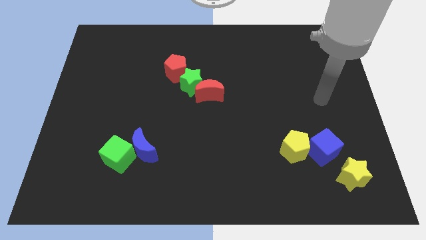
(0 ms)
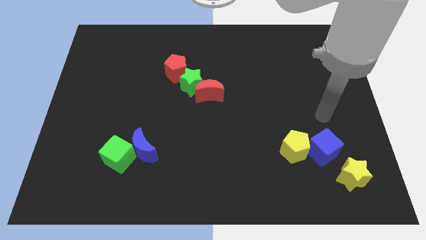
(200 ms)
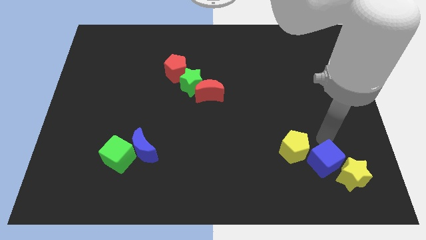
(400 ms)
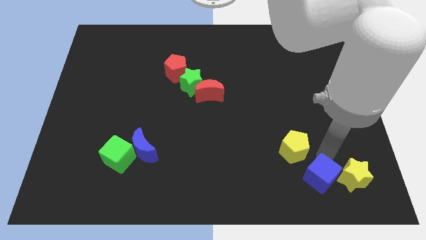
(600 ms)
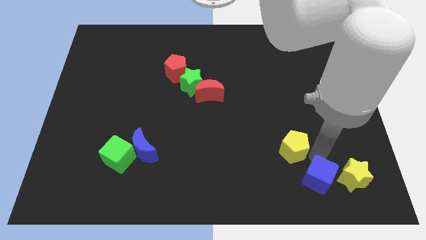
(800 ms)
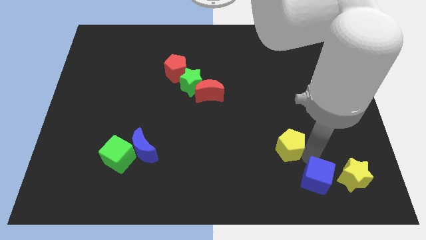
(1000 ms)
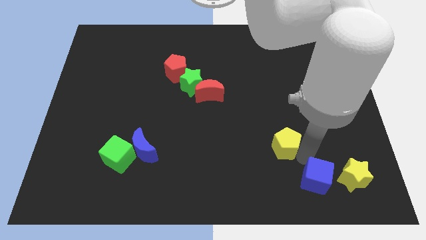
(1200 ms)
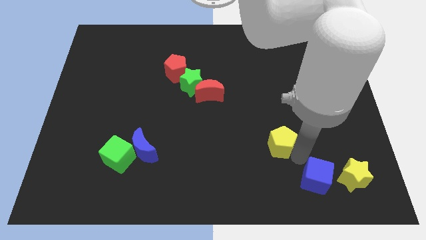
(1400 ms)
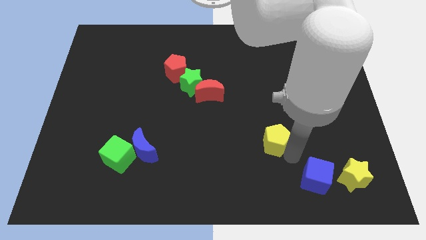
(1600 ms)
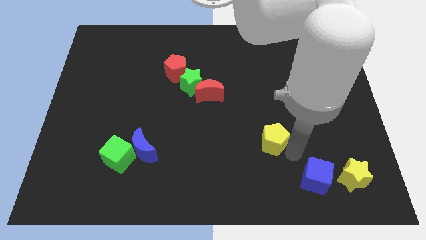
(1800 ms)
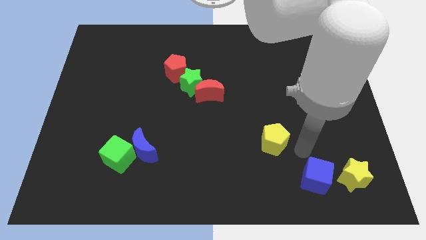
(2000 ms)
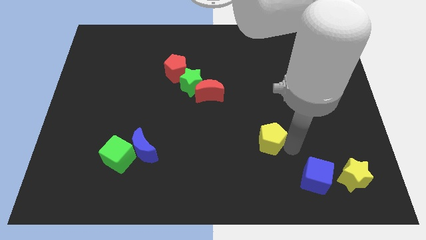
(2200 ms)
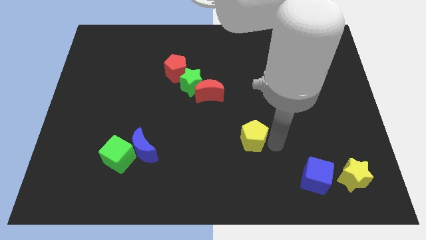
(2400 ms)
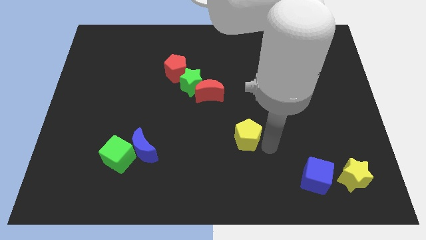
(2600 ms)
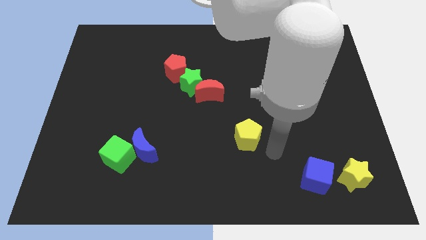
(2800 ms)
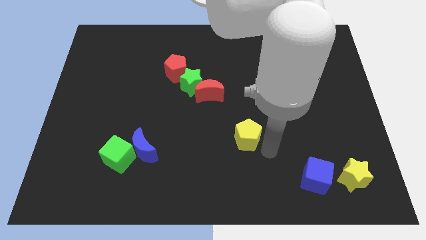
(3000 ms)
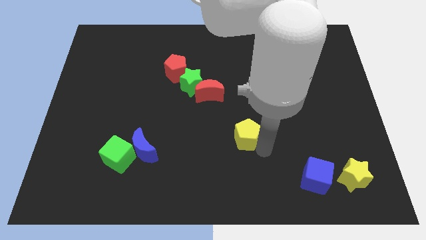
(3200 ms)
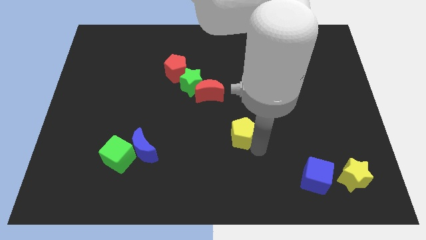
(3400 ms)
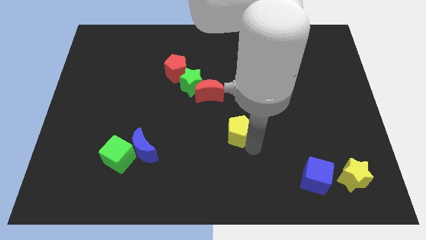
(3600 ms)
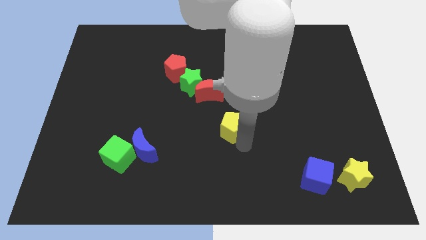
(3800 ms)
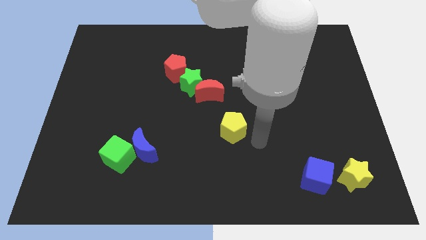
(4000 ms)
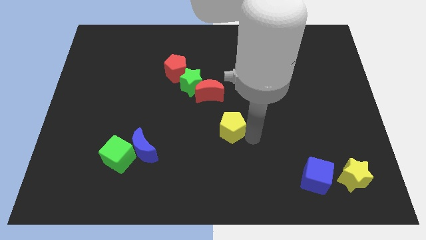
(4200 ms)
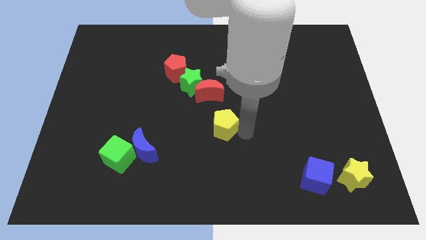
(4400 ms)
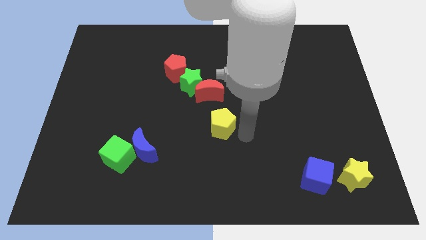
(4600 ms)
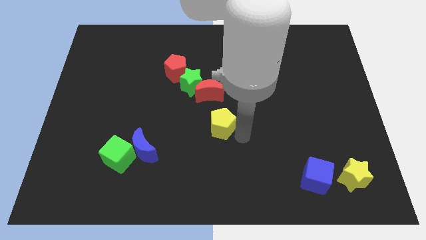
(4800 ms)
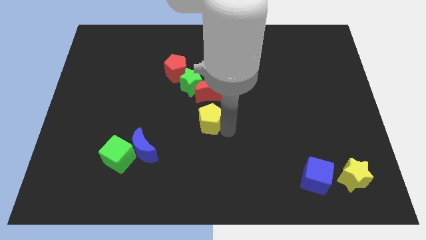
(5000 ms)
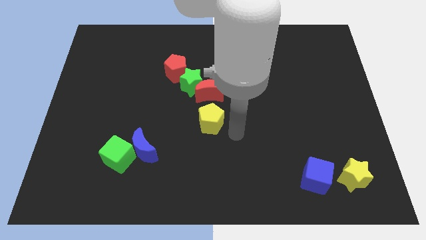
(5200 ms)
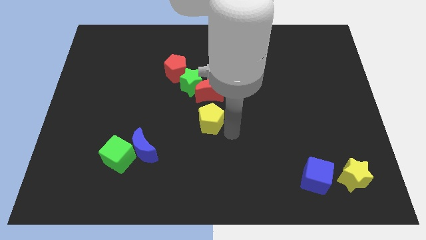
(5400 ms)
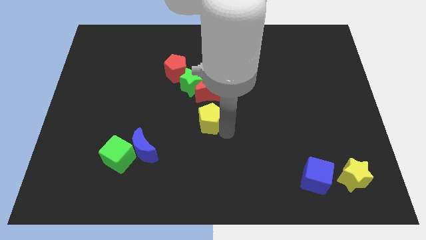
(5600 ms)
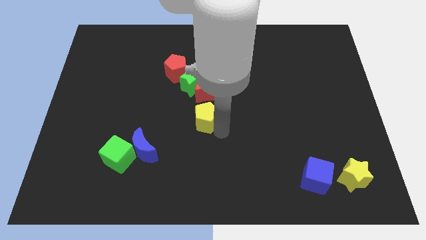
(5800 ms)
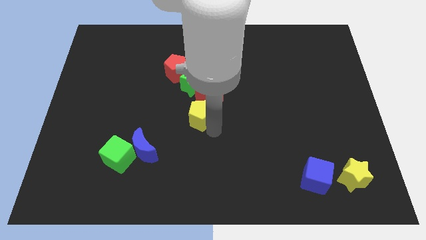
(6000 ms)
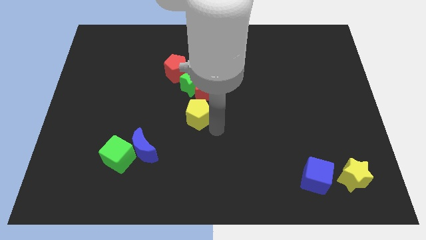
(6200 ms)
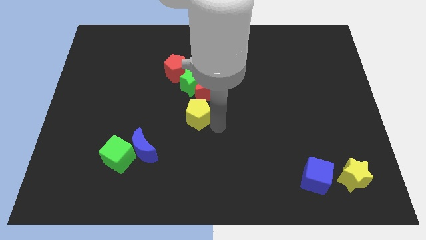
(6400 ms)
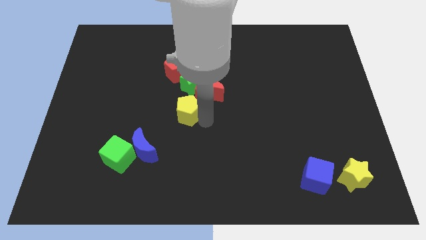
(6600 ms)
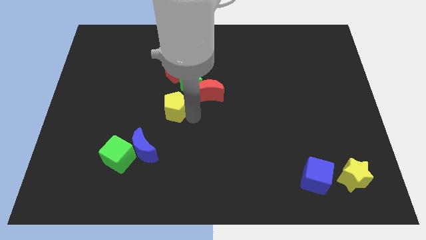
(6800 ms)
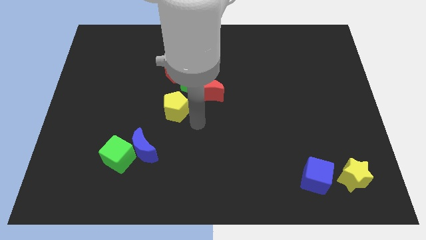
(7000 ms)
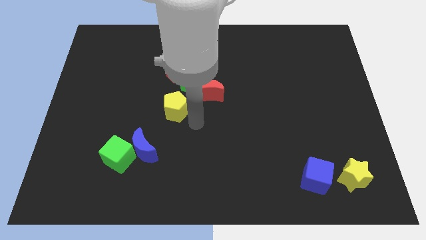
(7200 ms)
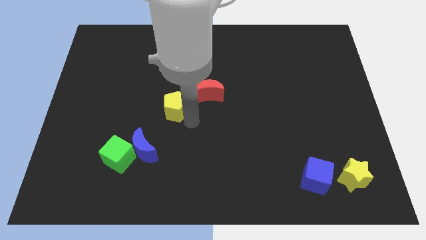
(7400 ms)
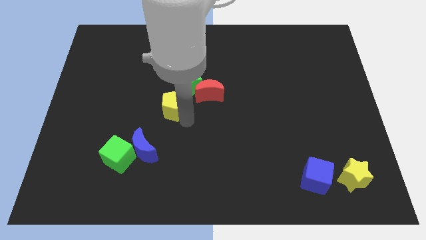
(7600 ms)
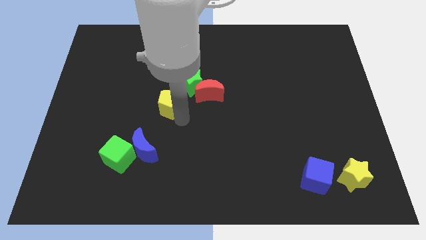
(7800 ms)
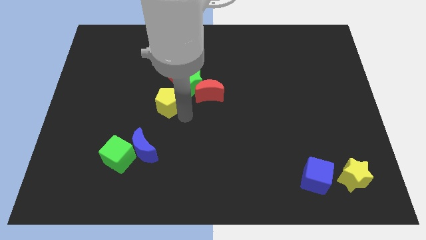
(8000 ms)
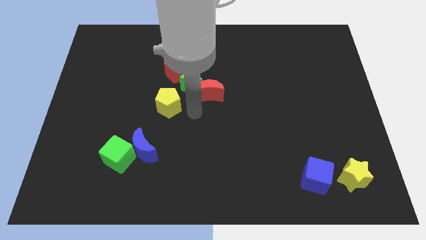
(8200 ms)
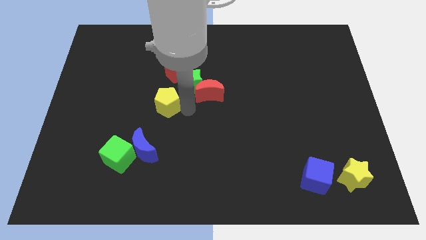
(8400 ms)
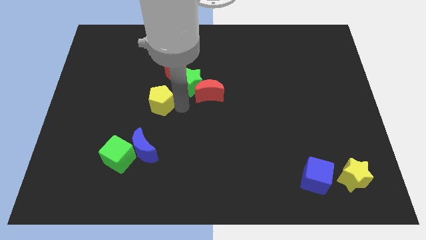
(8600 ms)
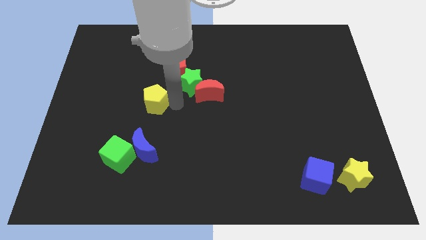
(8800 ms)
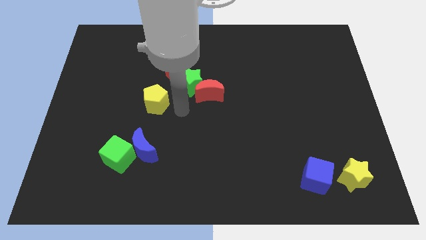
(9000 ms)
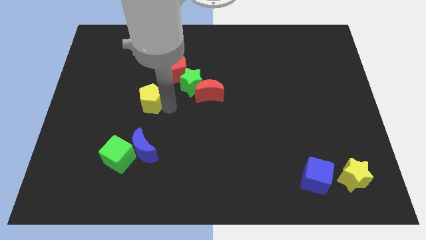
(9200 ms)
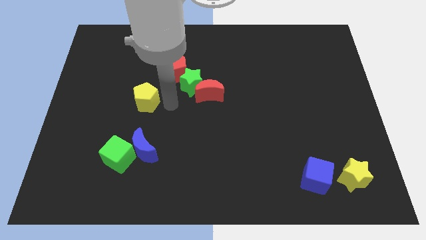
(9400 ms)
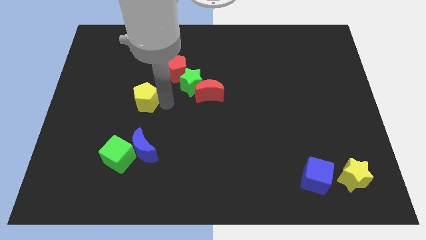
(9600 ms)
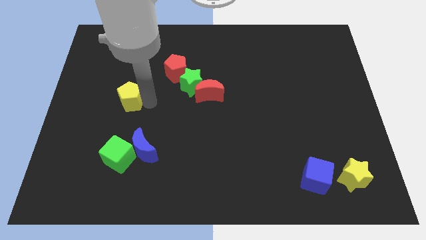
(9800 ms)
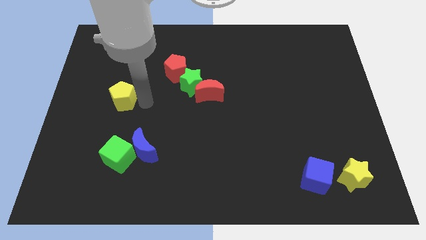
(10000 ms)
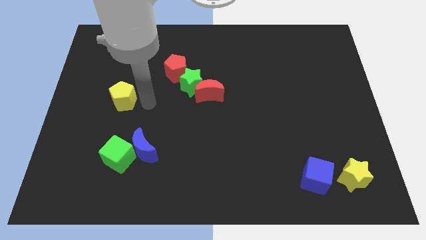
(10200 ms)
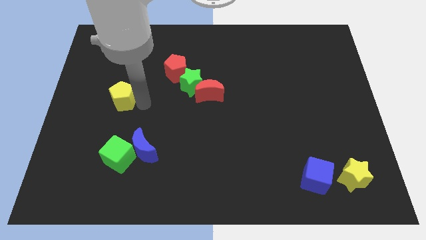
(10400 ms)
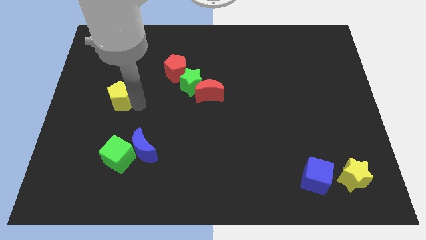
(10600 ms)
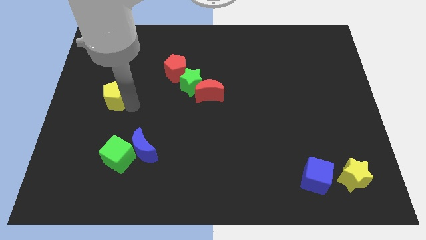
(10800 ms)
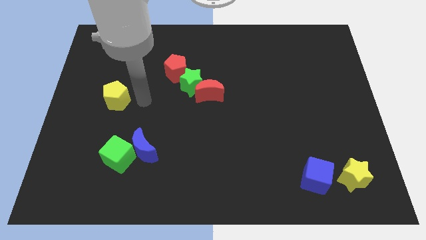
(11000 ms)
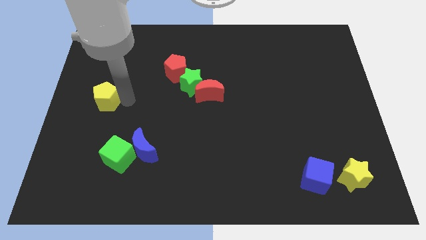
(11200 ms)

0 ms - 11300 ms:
move the yellow pentagon to the left side

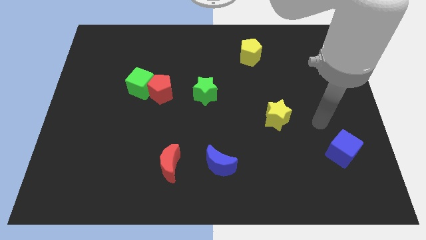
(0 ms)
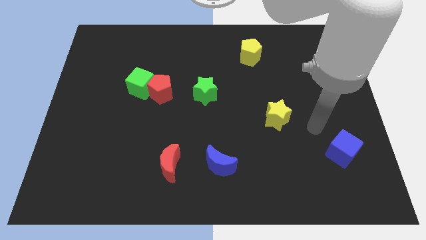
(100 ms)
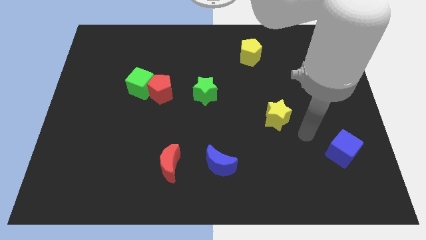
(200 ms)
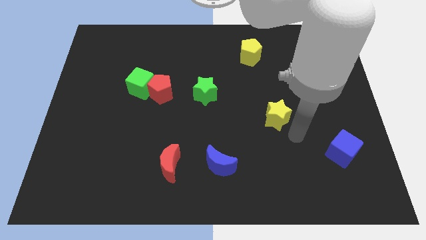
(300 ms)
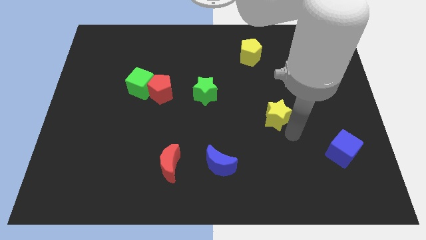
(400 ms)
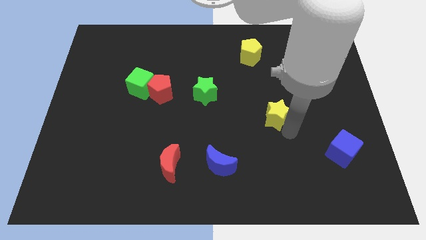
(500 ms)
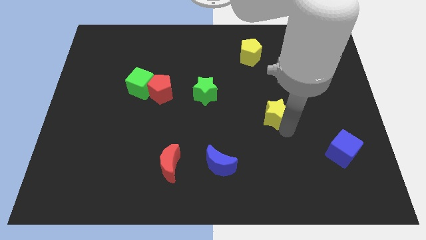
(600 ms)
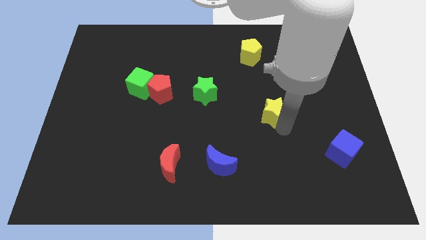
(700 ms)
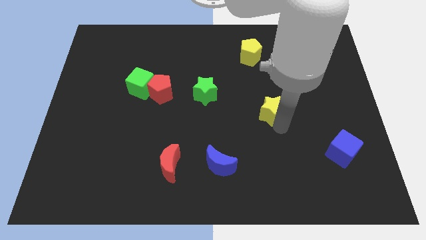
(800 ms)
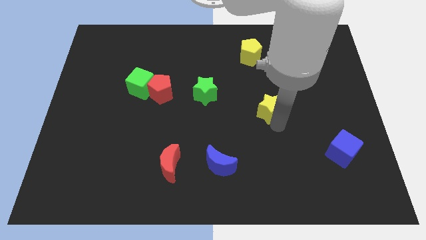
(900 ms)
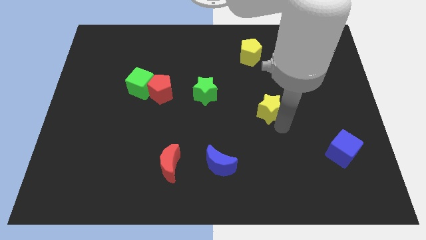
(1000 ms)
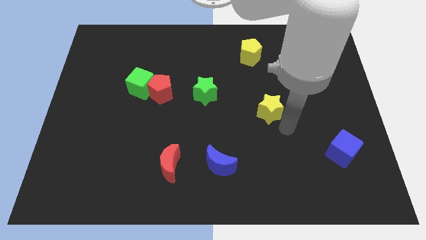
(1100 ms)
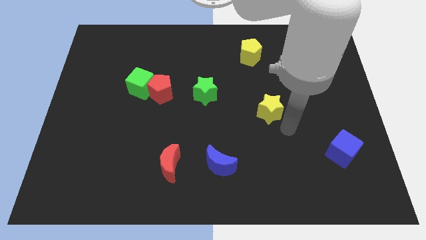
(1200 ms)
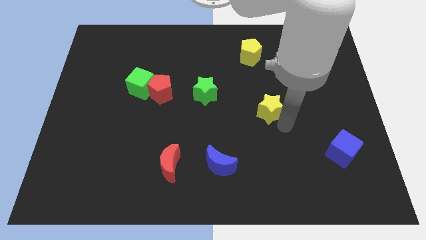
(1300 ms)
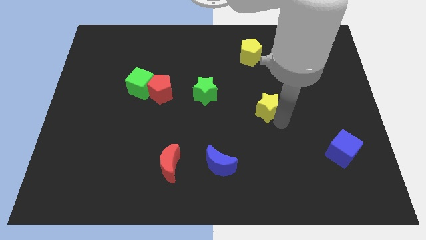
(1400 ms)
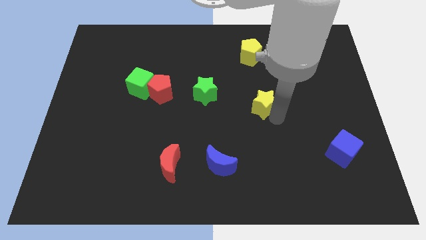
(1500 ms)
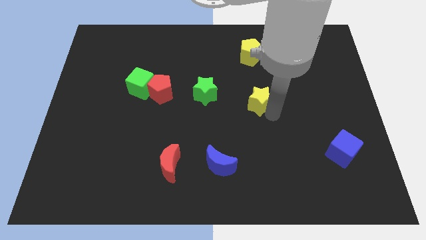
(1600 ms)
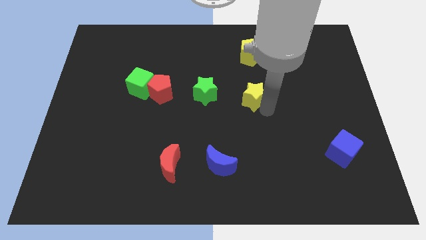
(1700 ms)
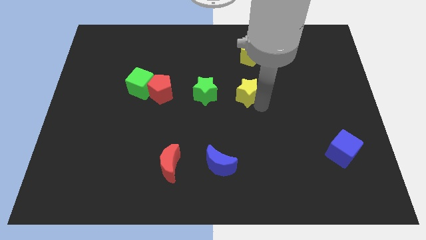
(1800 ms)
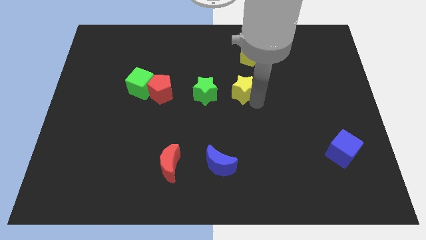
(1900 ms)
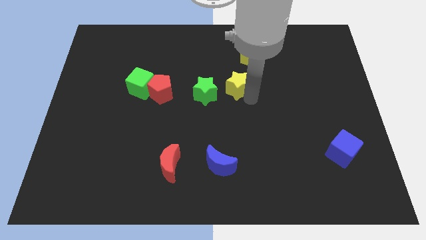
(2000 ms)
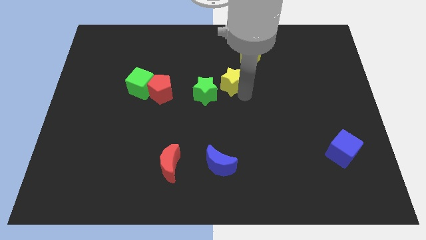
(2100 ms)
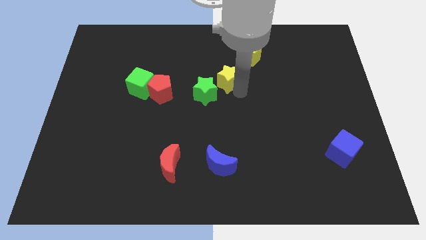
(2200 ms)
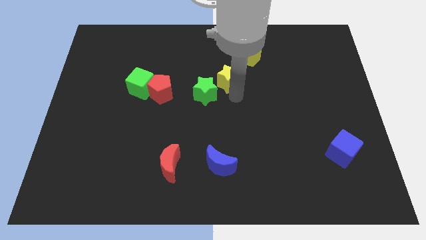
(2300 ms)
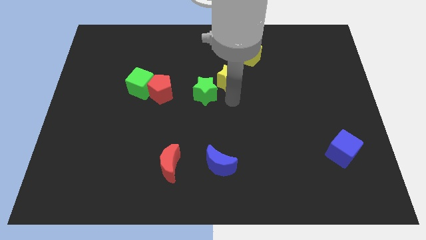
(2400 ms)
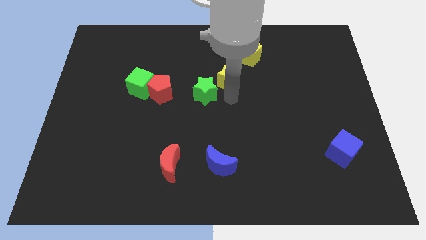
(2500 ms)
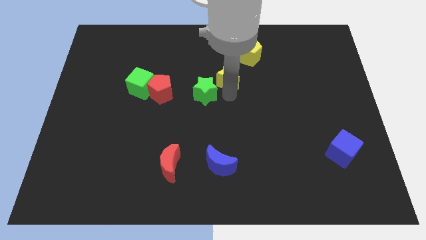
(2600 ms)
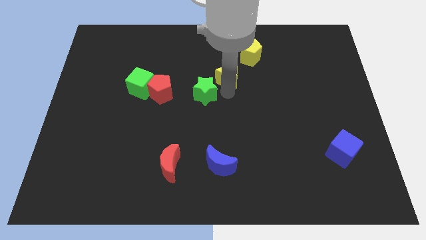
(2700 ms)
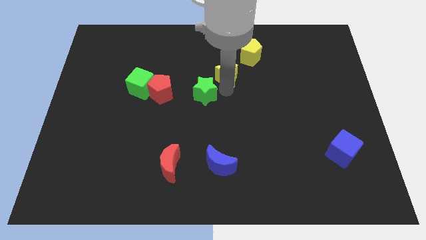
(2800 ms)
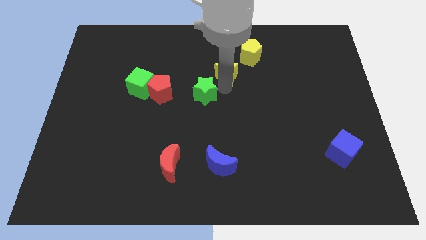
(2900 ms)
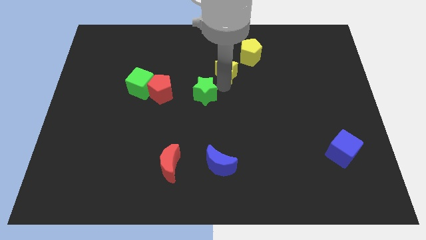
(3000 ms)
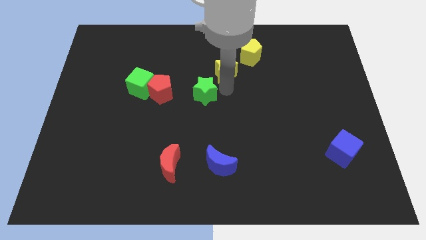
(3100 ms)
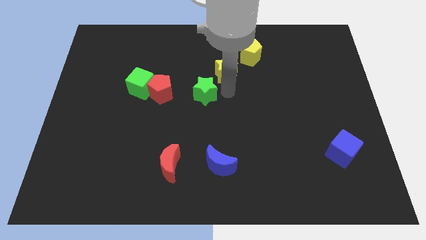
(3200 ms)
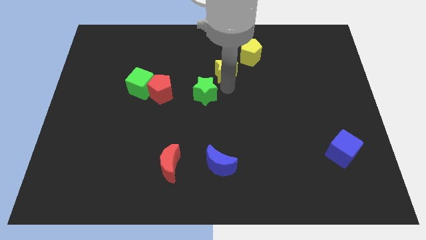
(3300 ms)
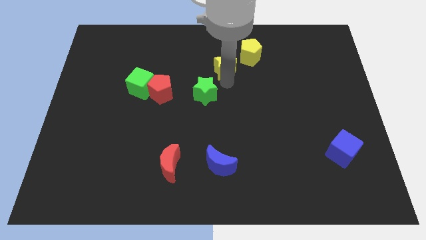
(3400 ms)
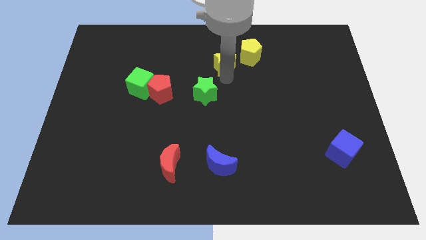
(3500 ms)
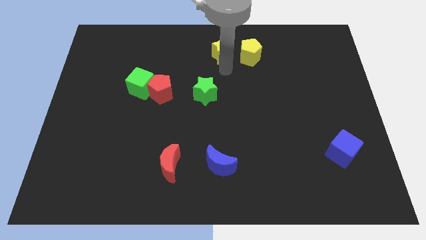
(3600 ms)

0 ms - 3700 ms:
move the yellow star to the top
